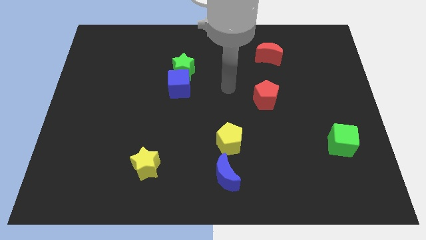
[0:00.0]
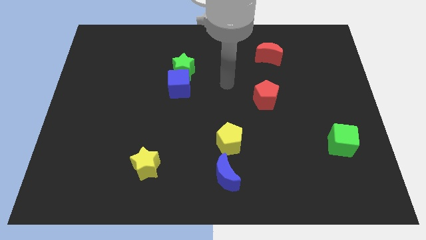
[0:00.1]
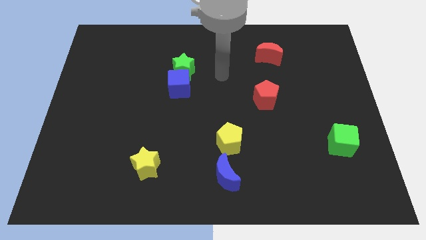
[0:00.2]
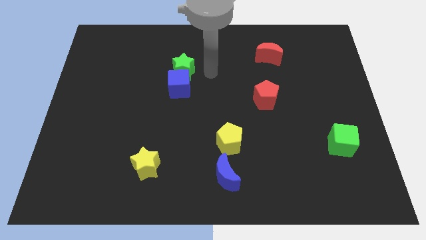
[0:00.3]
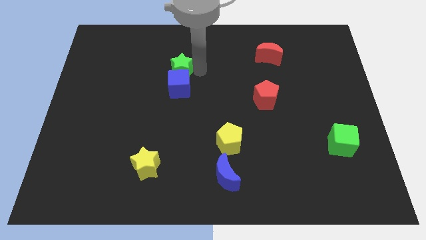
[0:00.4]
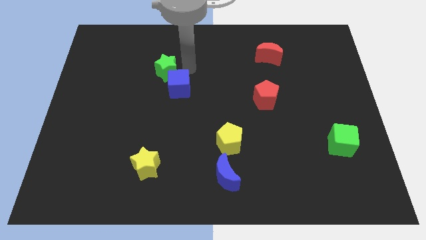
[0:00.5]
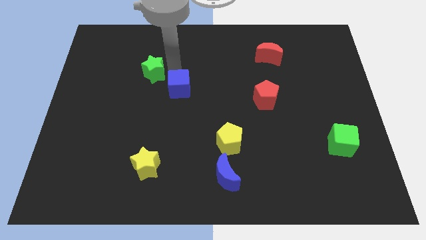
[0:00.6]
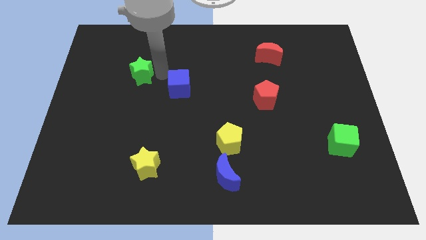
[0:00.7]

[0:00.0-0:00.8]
move the blue cube away from the green star

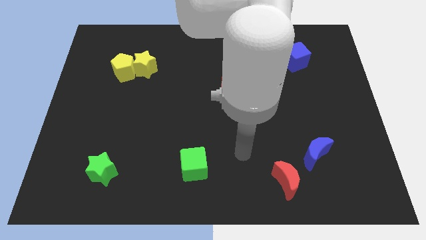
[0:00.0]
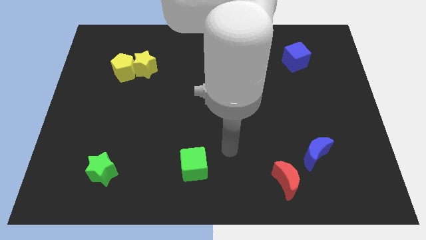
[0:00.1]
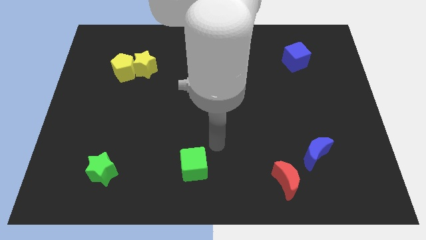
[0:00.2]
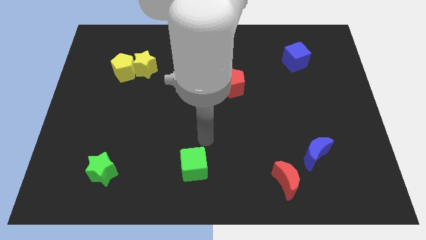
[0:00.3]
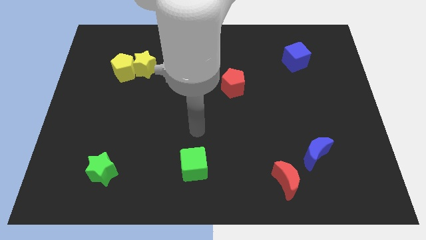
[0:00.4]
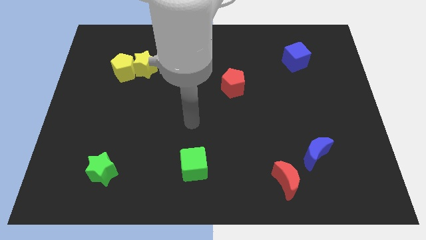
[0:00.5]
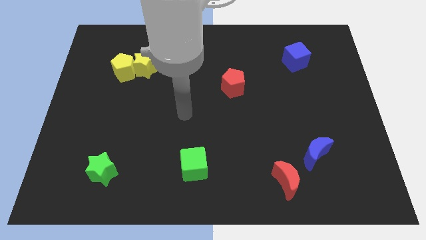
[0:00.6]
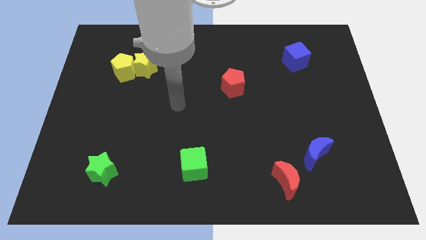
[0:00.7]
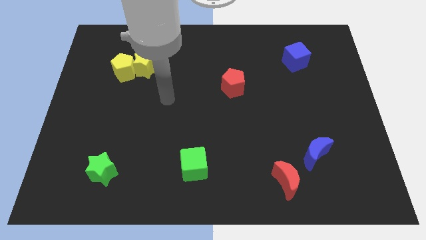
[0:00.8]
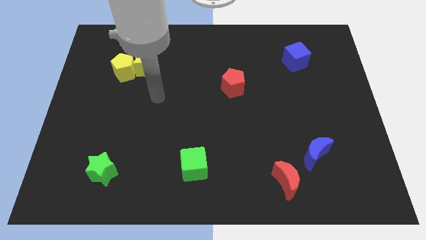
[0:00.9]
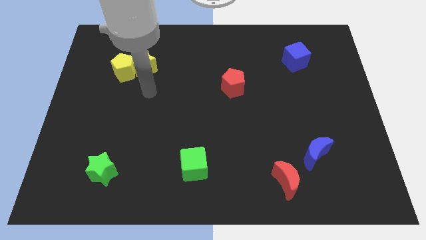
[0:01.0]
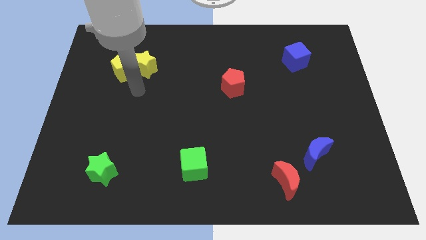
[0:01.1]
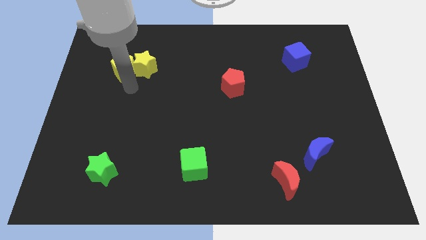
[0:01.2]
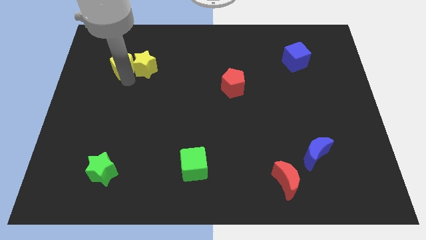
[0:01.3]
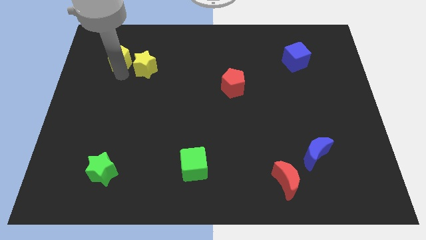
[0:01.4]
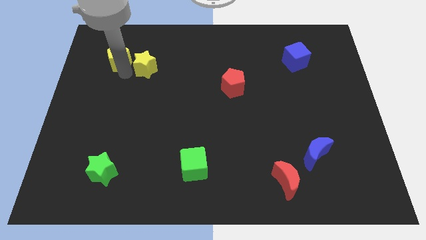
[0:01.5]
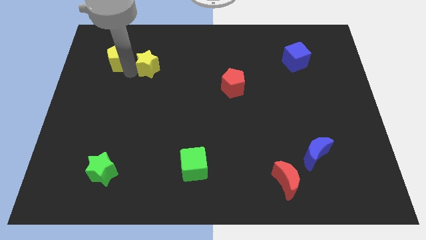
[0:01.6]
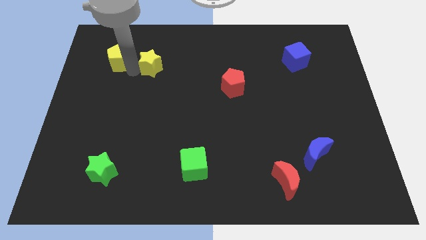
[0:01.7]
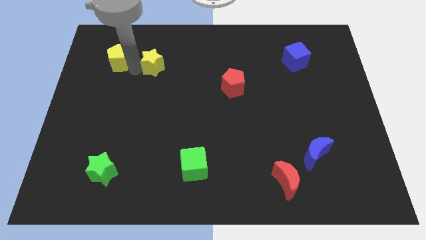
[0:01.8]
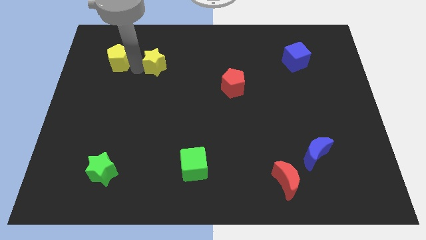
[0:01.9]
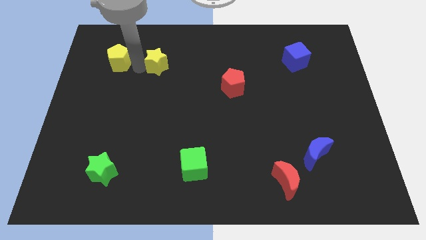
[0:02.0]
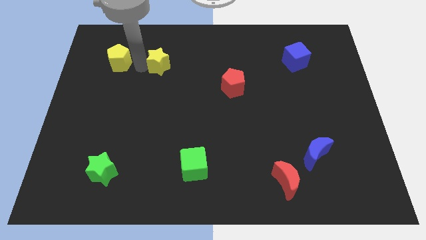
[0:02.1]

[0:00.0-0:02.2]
pull the yellow star apart from the yellow pentagon

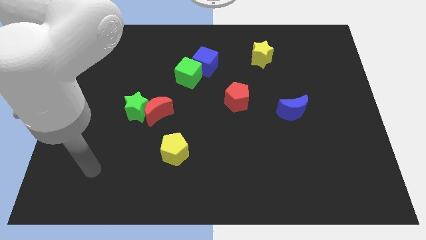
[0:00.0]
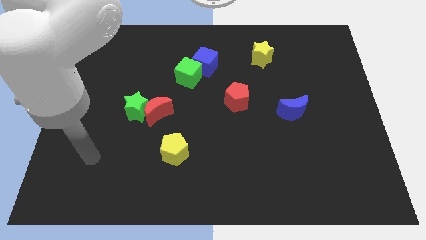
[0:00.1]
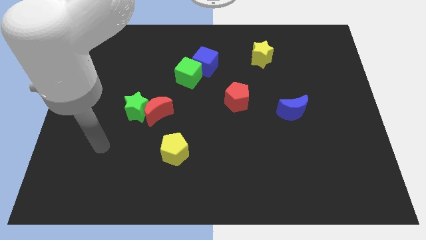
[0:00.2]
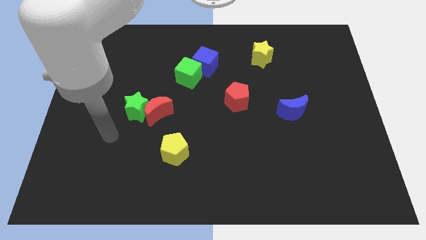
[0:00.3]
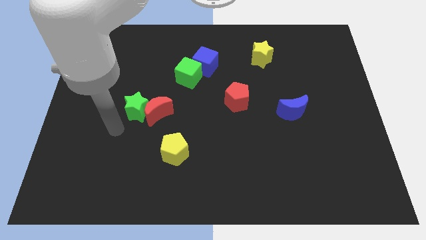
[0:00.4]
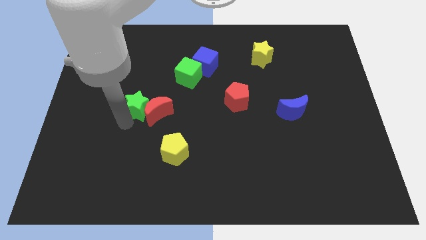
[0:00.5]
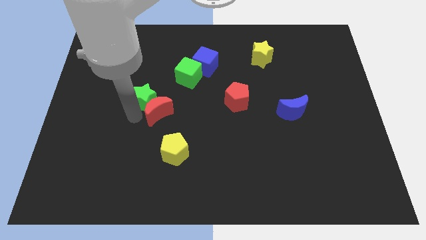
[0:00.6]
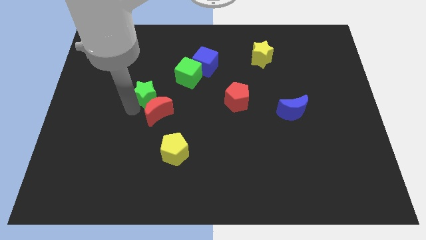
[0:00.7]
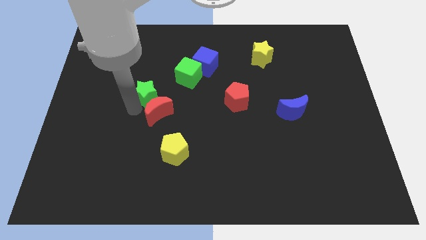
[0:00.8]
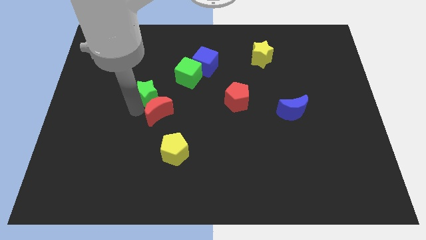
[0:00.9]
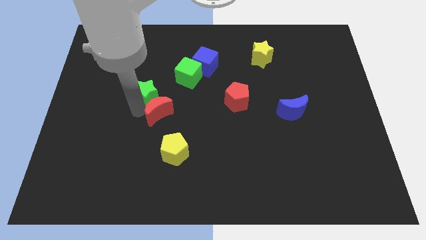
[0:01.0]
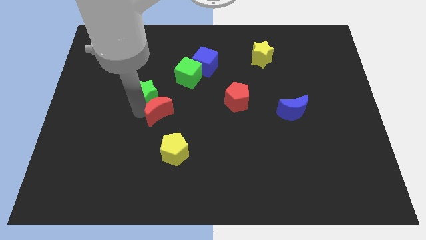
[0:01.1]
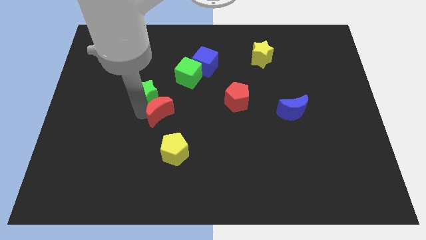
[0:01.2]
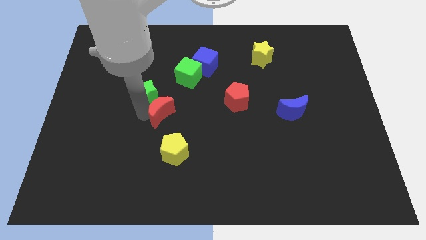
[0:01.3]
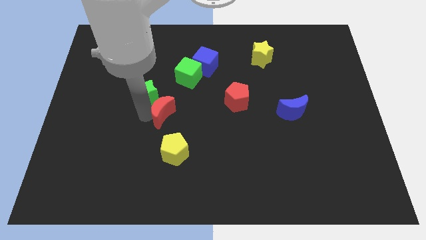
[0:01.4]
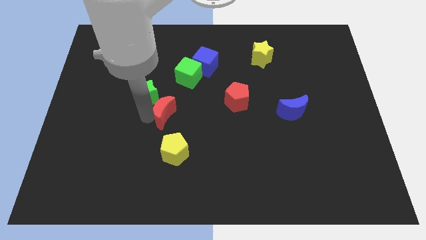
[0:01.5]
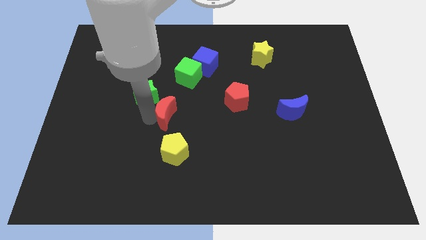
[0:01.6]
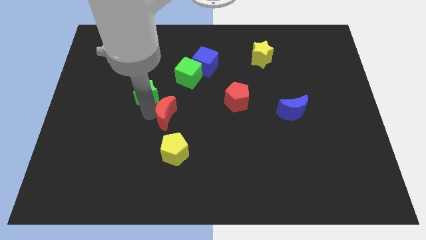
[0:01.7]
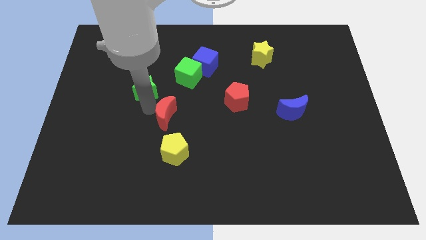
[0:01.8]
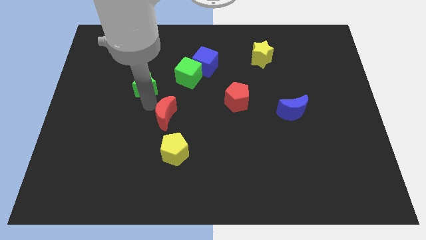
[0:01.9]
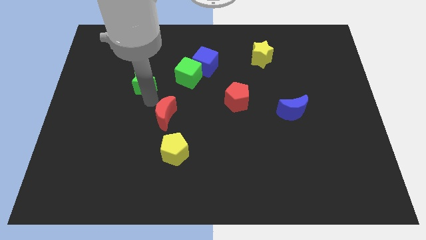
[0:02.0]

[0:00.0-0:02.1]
pull the red moon apart from the green star

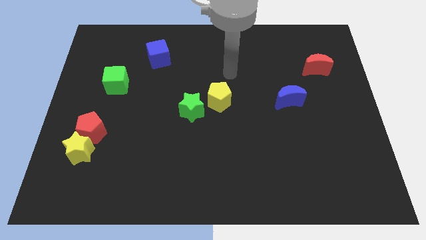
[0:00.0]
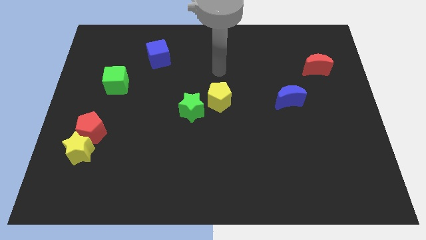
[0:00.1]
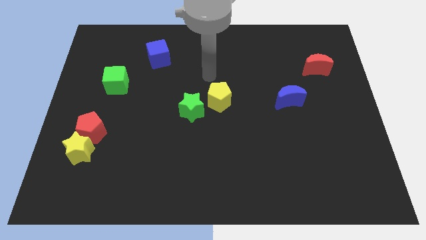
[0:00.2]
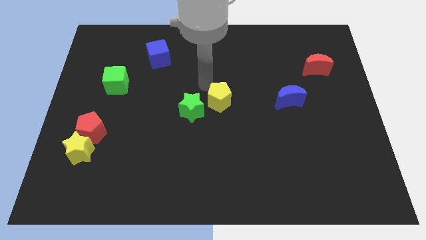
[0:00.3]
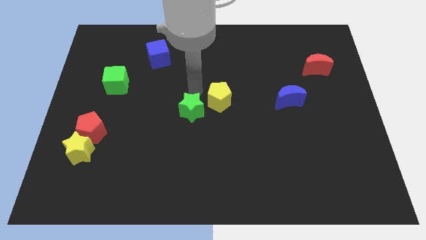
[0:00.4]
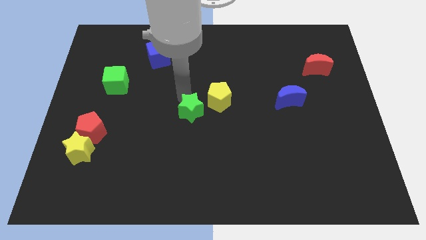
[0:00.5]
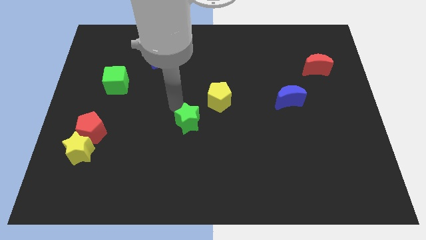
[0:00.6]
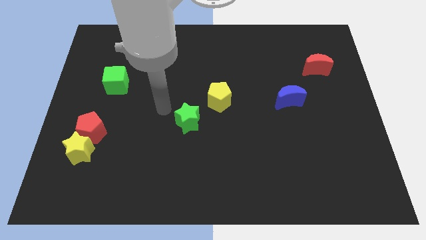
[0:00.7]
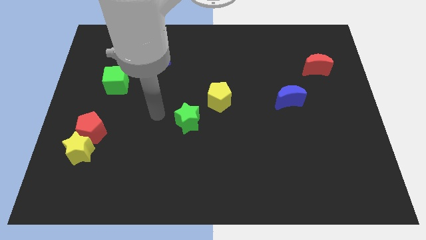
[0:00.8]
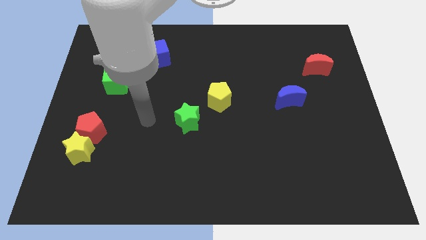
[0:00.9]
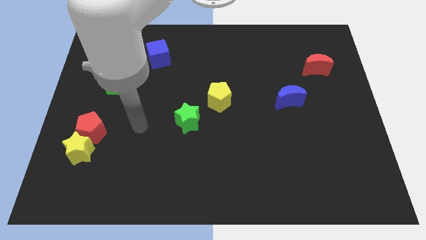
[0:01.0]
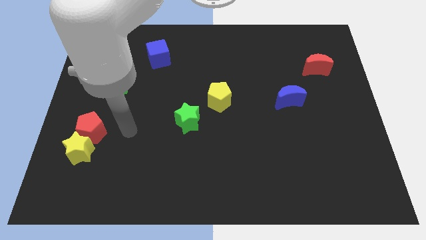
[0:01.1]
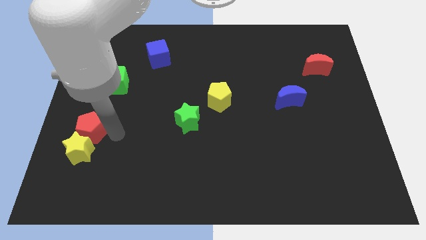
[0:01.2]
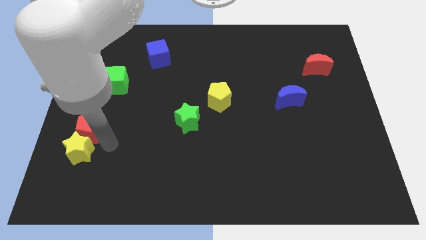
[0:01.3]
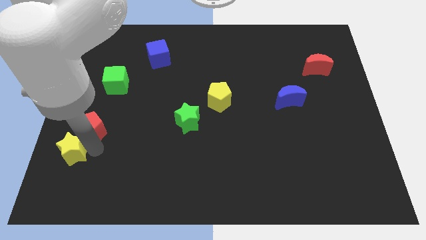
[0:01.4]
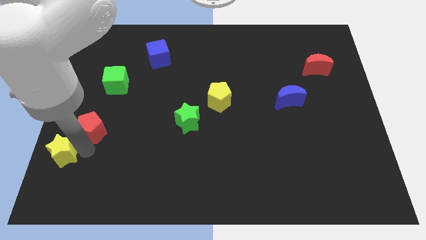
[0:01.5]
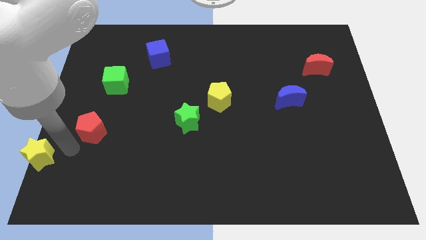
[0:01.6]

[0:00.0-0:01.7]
pull the red pentagon apart from the yellow star

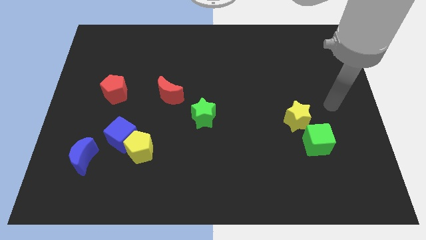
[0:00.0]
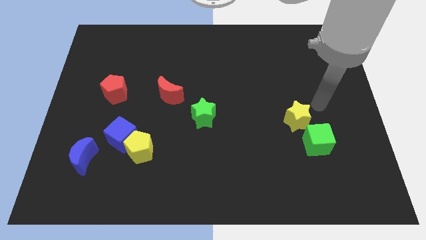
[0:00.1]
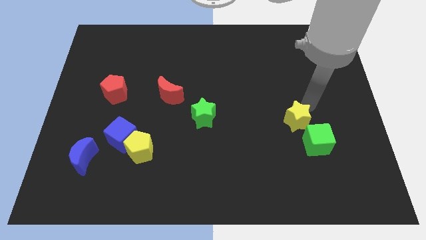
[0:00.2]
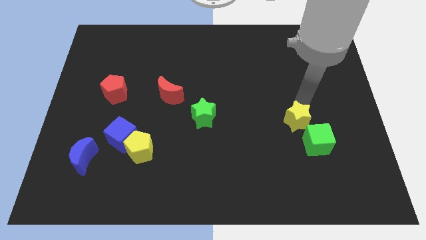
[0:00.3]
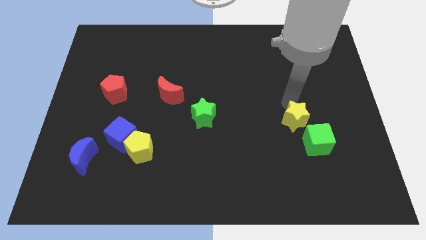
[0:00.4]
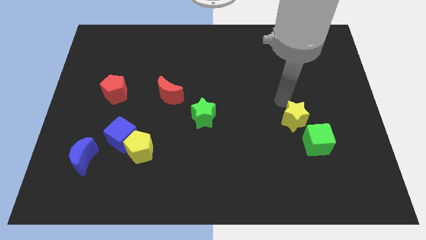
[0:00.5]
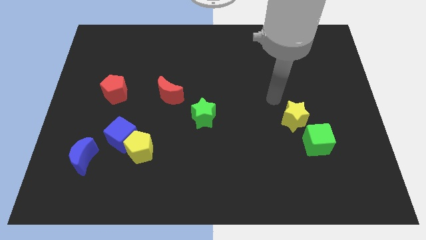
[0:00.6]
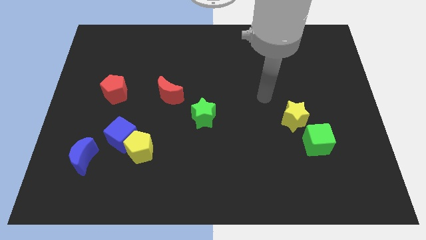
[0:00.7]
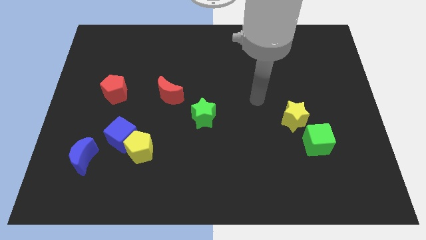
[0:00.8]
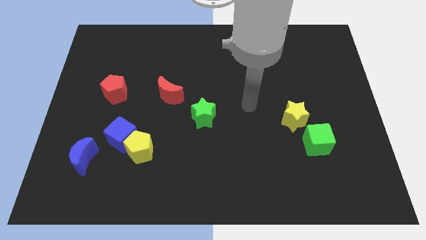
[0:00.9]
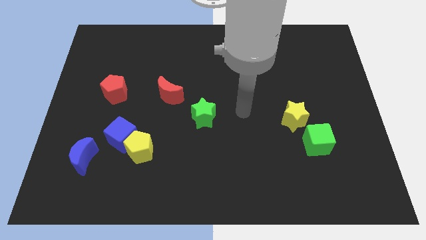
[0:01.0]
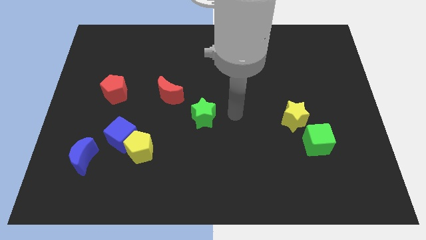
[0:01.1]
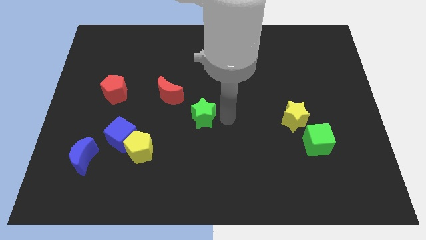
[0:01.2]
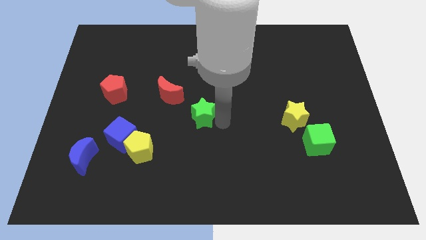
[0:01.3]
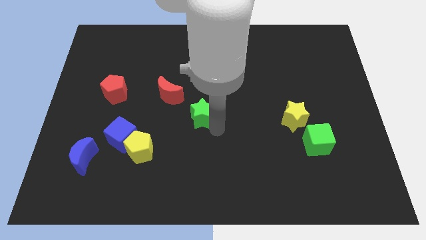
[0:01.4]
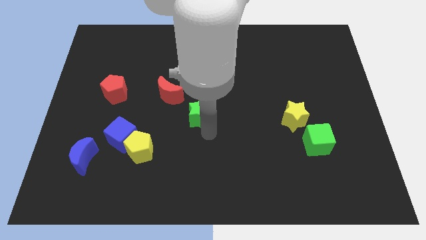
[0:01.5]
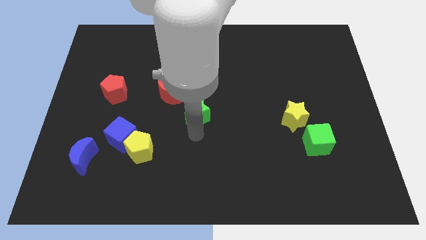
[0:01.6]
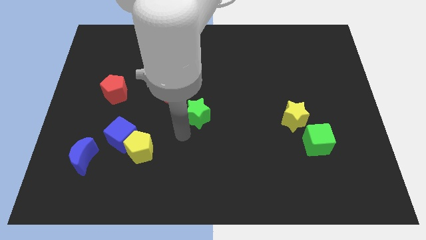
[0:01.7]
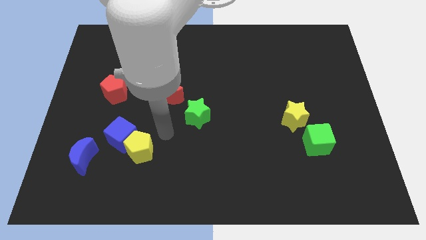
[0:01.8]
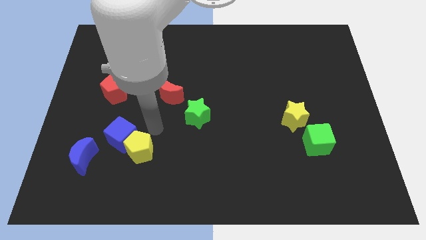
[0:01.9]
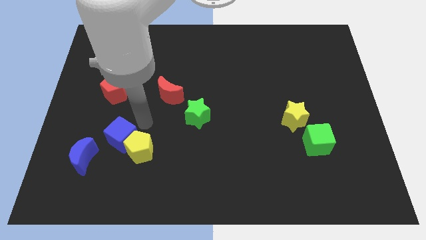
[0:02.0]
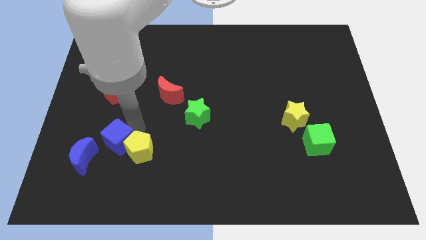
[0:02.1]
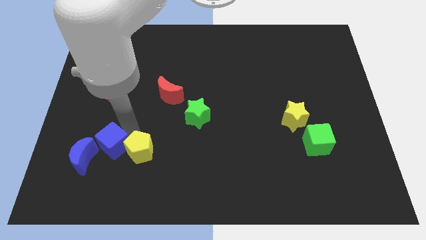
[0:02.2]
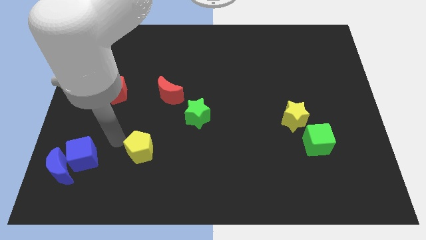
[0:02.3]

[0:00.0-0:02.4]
move the yellow pentagon away from the blue cube
